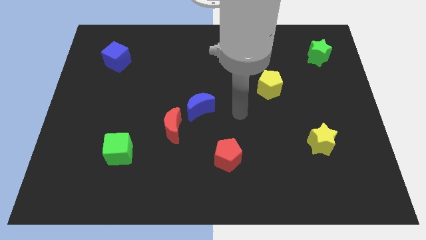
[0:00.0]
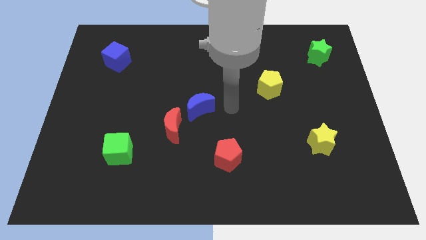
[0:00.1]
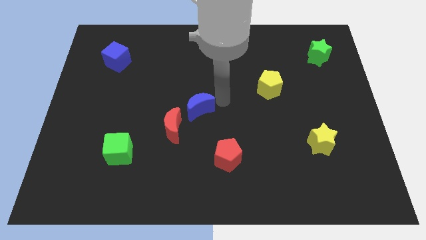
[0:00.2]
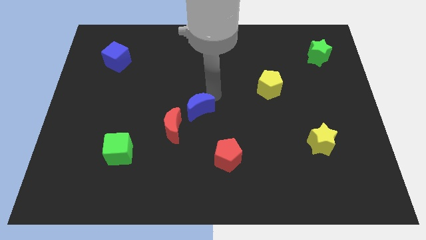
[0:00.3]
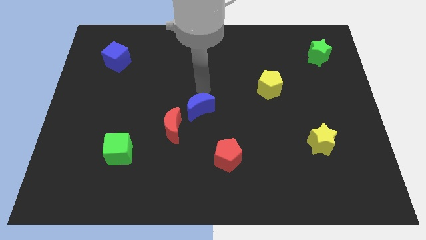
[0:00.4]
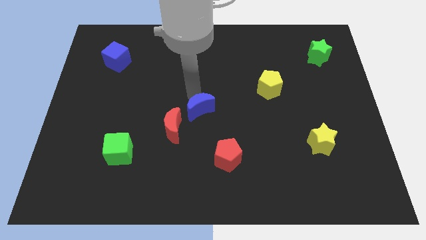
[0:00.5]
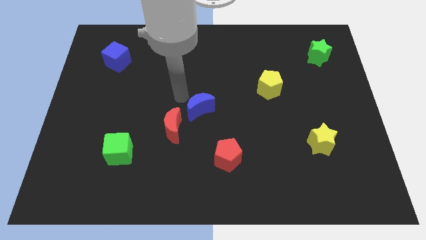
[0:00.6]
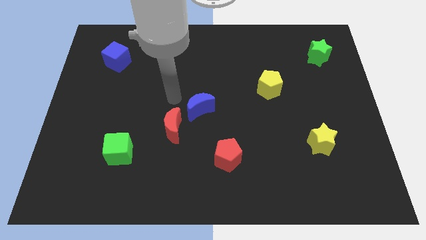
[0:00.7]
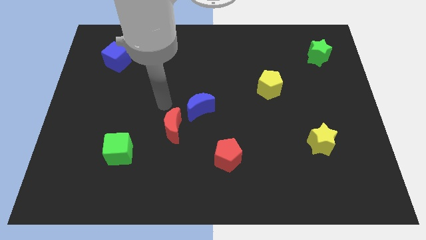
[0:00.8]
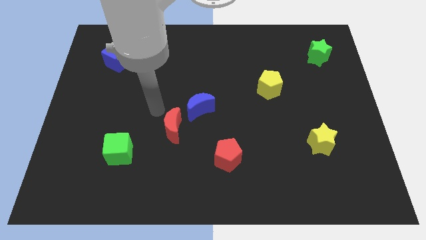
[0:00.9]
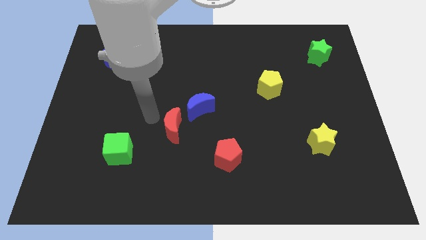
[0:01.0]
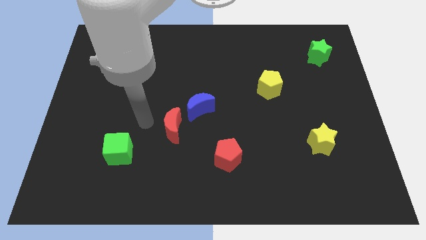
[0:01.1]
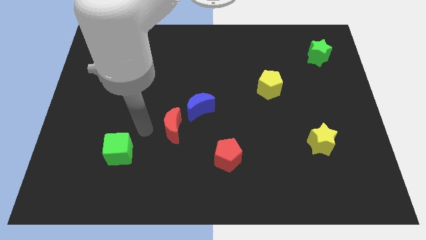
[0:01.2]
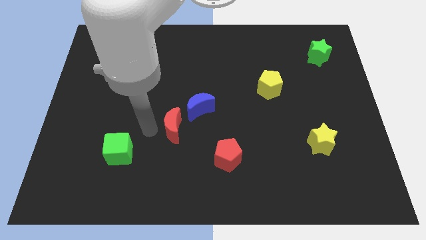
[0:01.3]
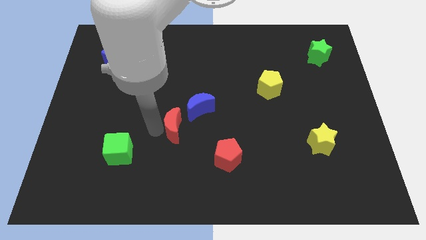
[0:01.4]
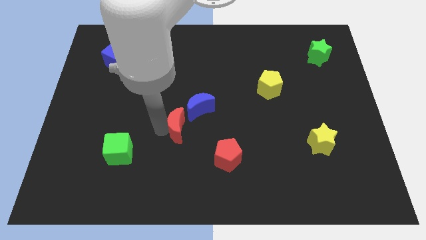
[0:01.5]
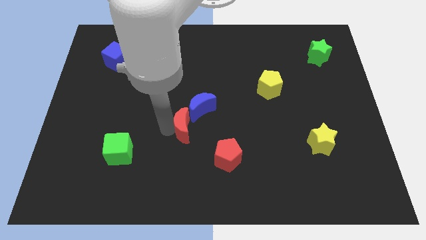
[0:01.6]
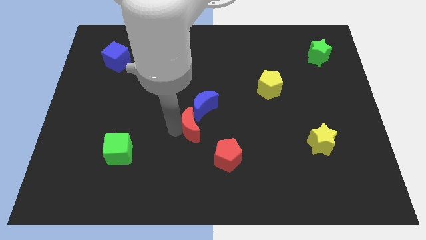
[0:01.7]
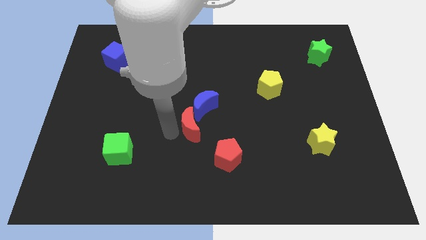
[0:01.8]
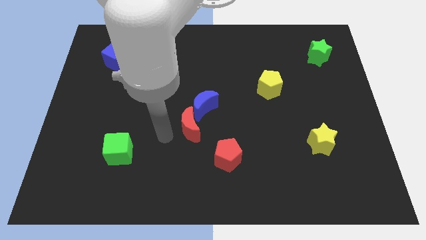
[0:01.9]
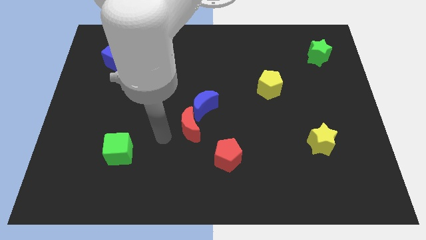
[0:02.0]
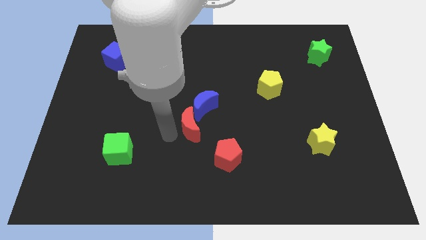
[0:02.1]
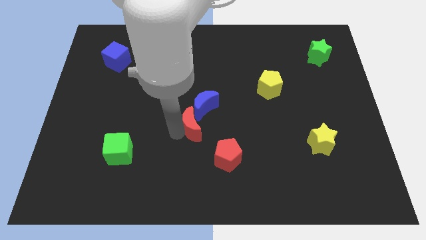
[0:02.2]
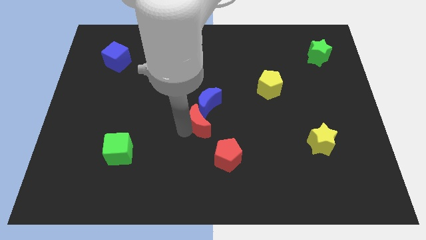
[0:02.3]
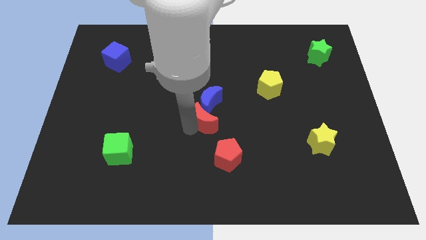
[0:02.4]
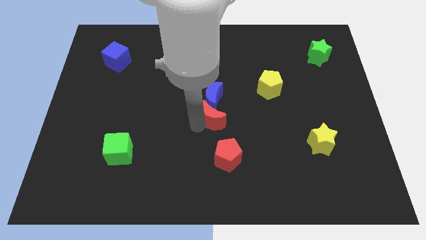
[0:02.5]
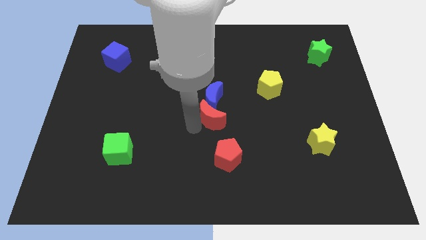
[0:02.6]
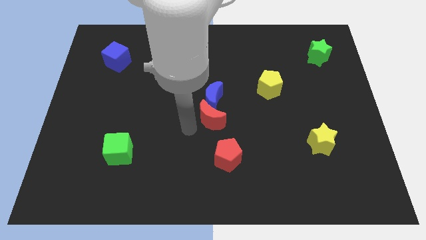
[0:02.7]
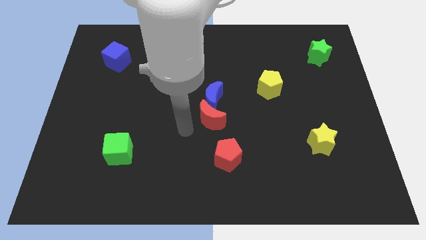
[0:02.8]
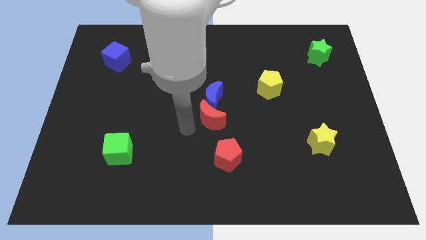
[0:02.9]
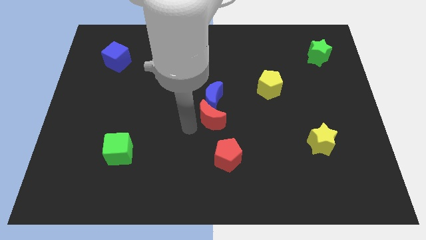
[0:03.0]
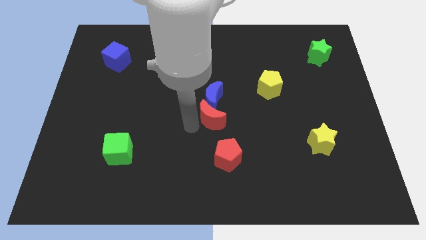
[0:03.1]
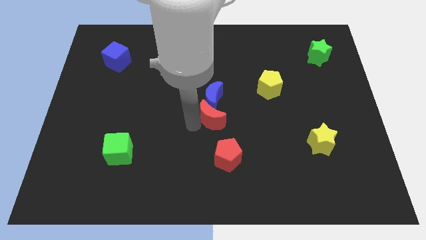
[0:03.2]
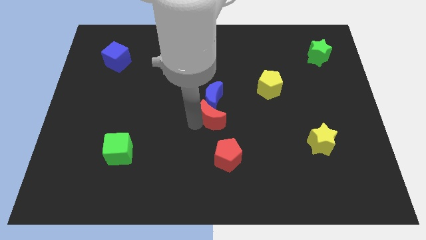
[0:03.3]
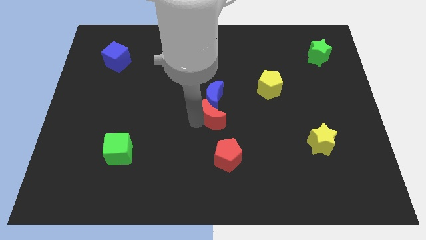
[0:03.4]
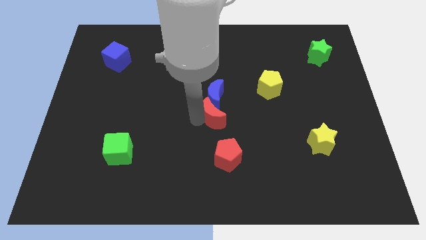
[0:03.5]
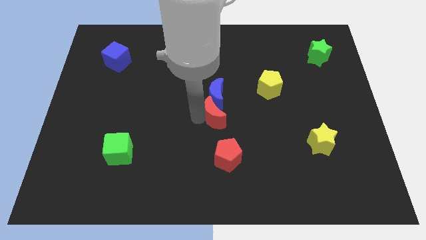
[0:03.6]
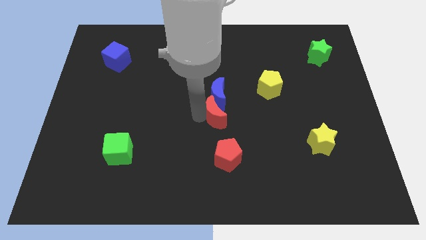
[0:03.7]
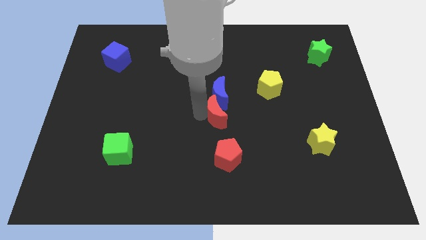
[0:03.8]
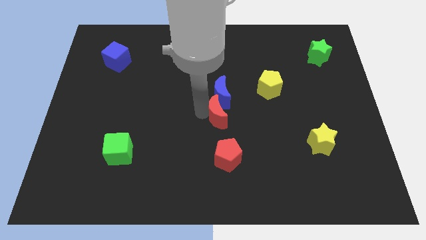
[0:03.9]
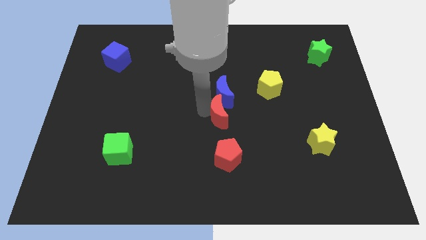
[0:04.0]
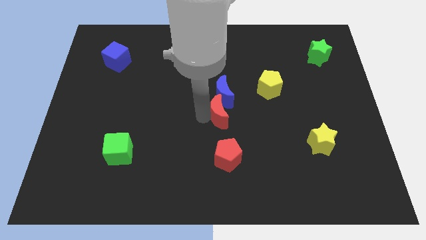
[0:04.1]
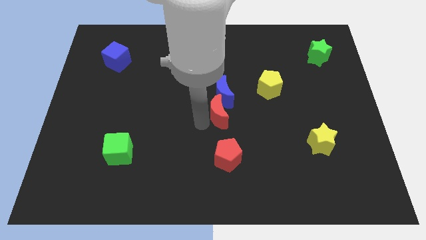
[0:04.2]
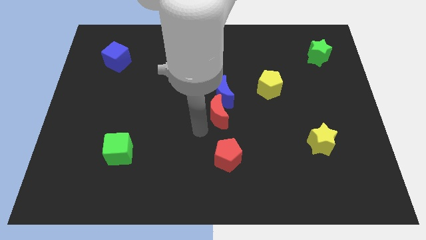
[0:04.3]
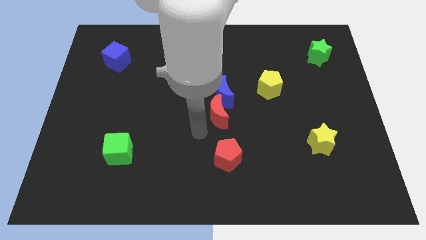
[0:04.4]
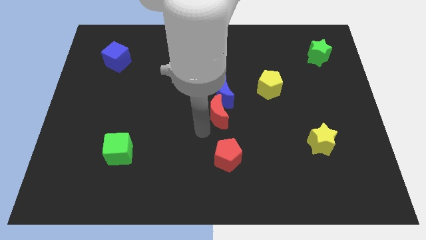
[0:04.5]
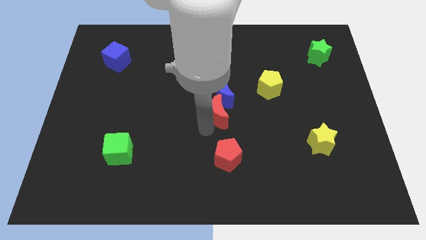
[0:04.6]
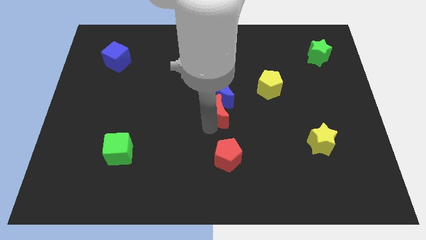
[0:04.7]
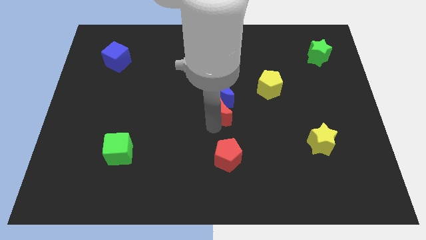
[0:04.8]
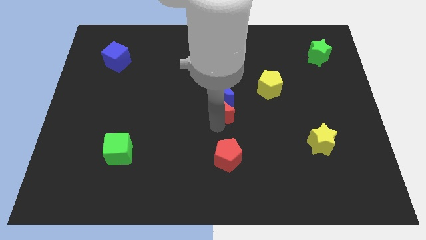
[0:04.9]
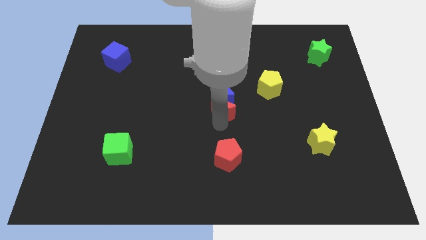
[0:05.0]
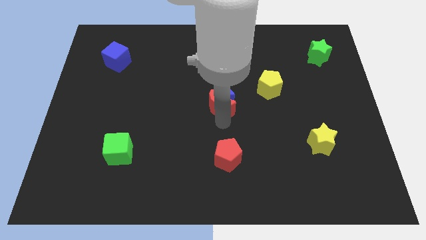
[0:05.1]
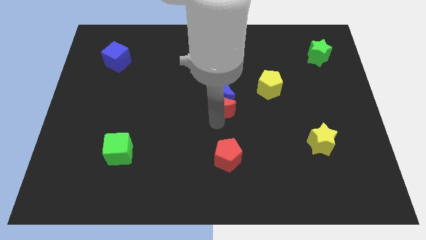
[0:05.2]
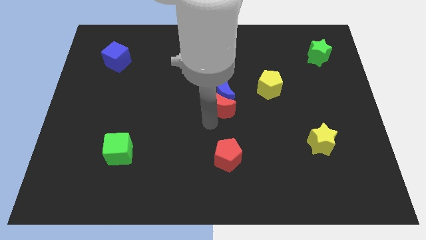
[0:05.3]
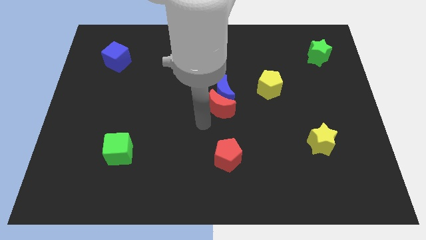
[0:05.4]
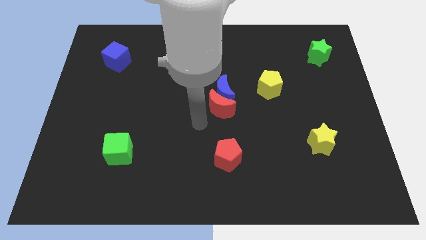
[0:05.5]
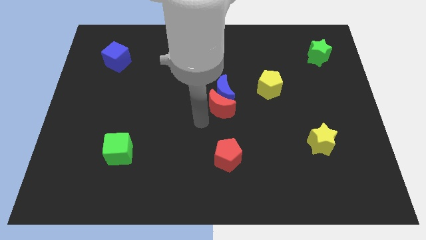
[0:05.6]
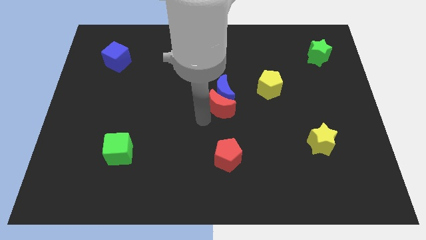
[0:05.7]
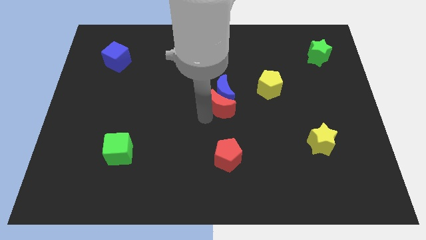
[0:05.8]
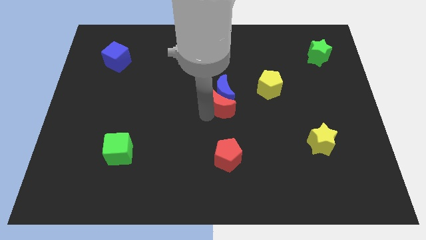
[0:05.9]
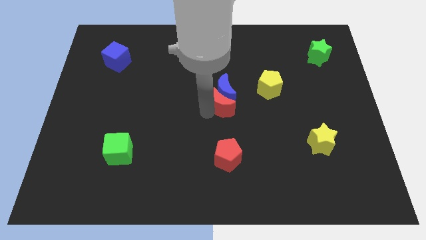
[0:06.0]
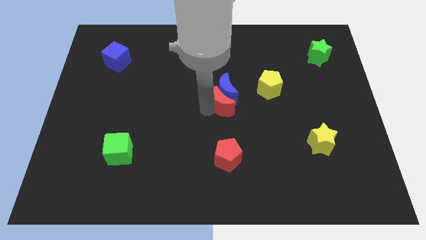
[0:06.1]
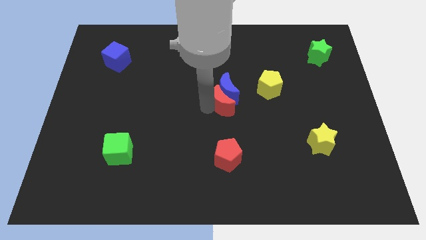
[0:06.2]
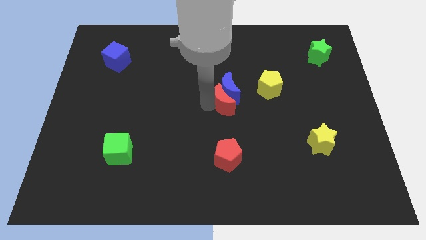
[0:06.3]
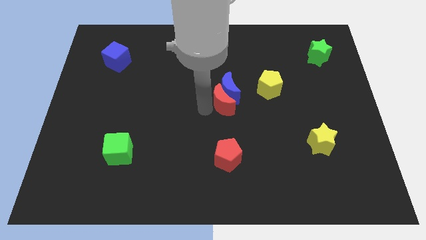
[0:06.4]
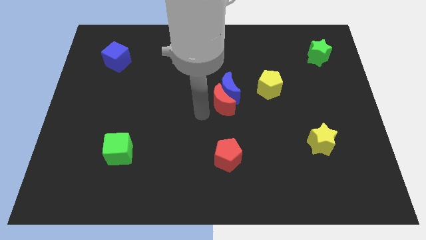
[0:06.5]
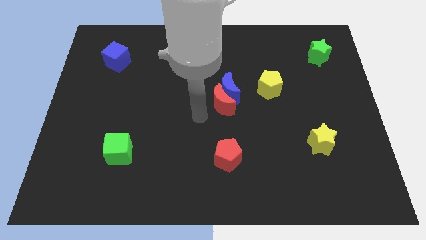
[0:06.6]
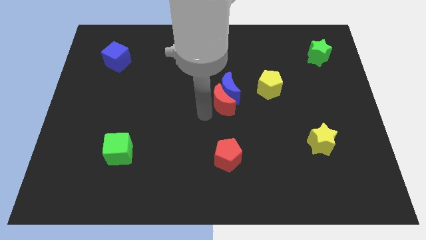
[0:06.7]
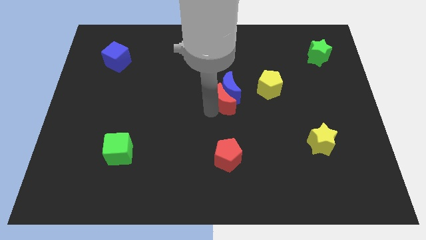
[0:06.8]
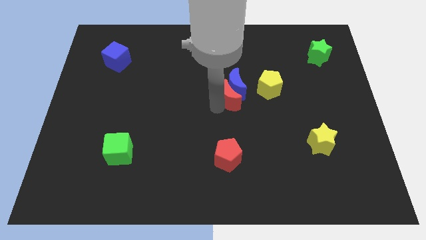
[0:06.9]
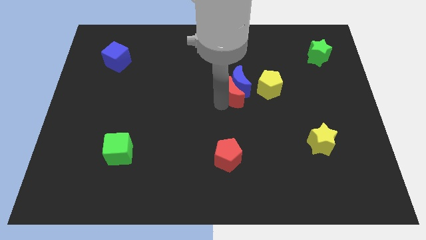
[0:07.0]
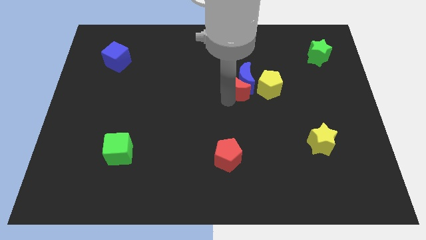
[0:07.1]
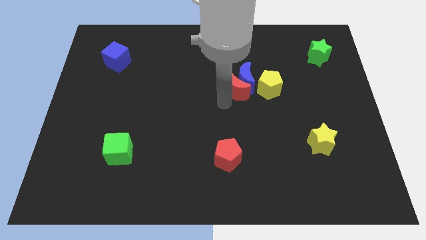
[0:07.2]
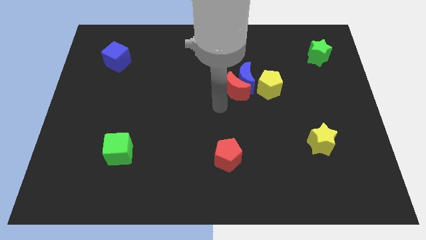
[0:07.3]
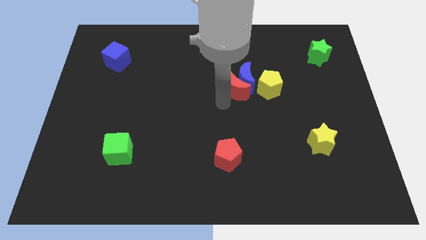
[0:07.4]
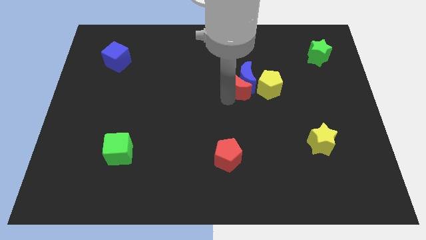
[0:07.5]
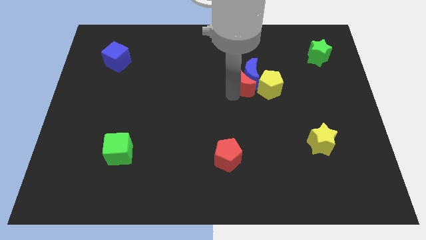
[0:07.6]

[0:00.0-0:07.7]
move the red moon up and right
